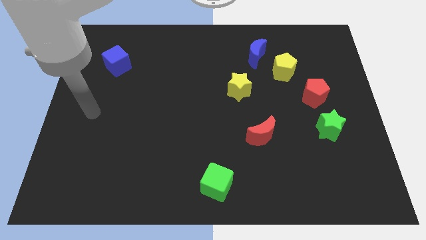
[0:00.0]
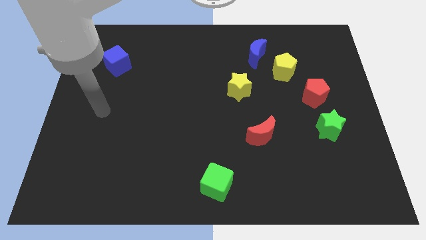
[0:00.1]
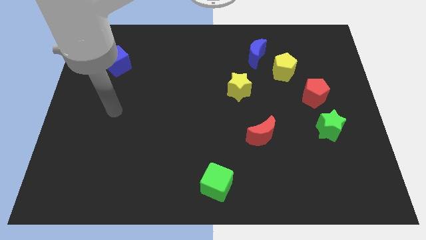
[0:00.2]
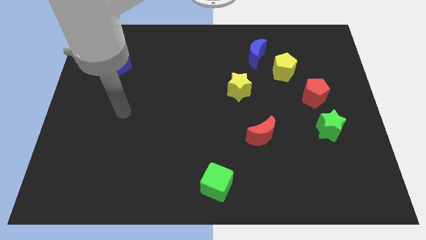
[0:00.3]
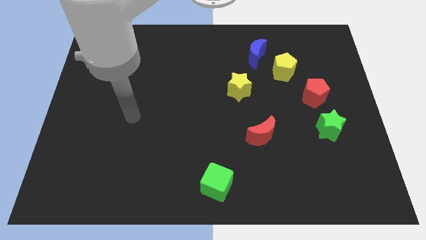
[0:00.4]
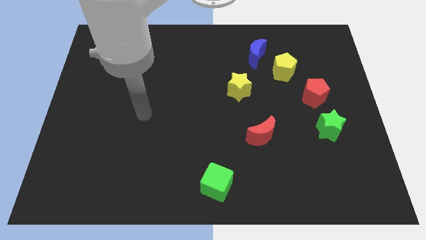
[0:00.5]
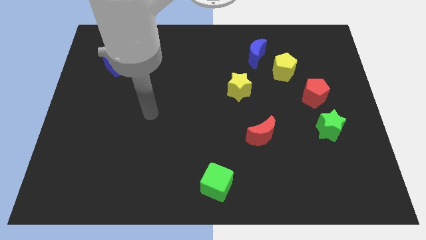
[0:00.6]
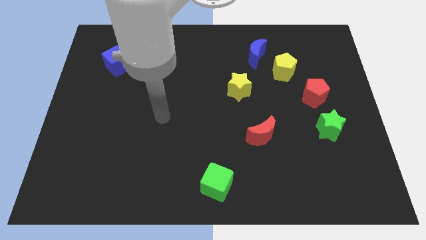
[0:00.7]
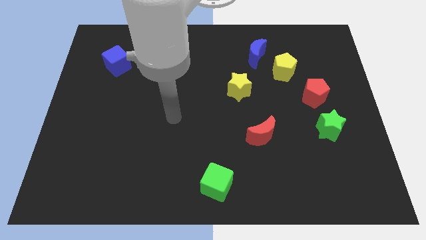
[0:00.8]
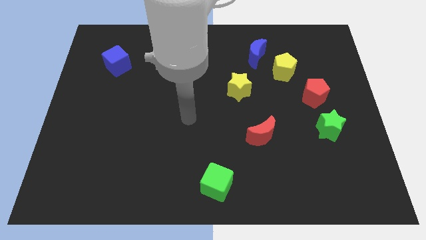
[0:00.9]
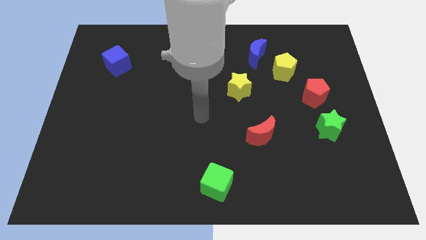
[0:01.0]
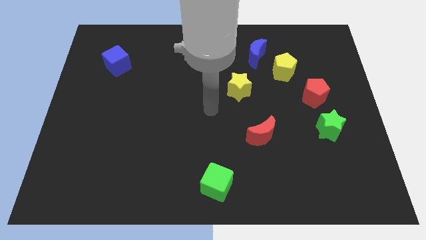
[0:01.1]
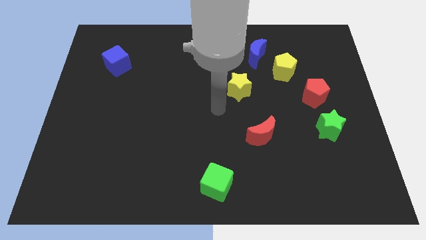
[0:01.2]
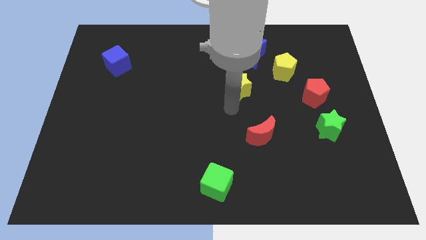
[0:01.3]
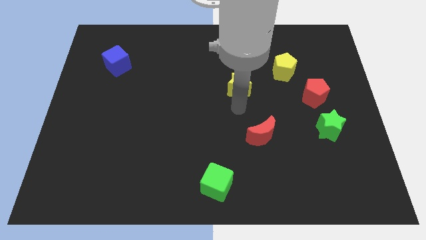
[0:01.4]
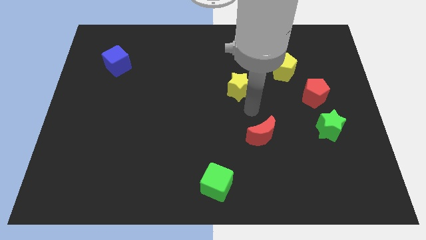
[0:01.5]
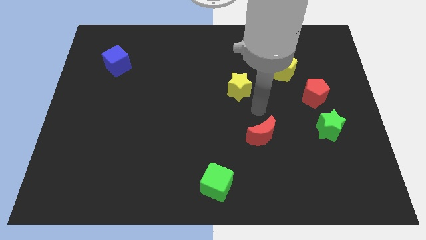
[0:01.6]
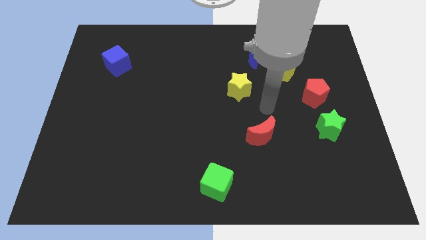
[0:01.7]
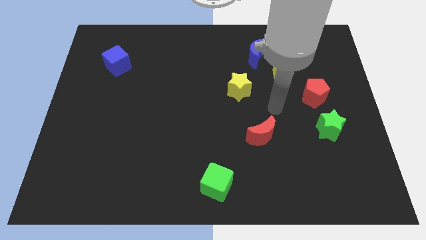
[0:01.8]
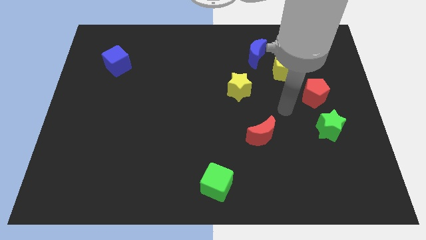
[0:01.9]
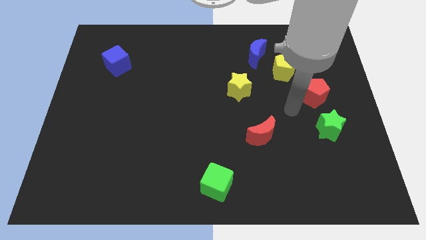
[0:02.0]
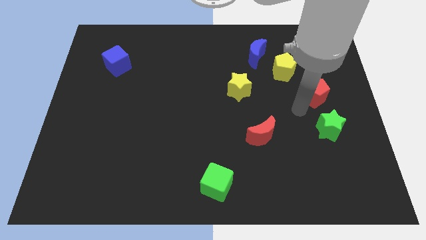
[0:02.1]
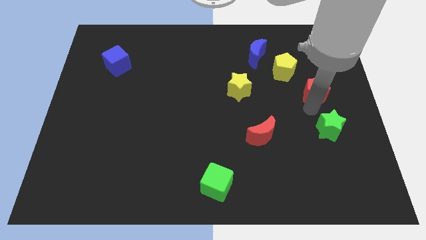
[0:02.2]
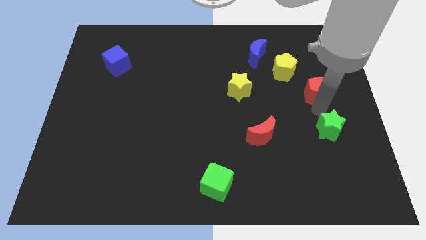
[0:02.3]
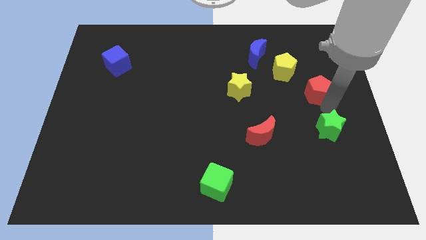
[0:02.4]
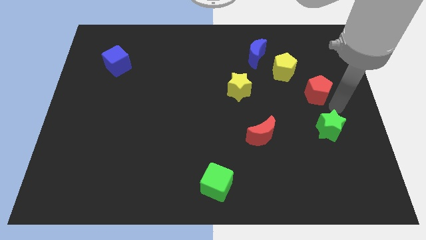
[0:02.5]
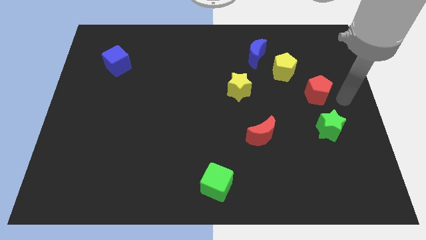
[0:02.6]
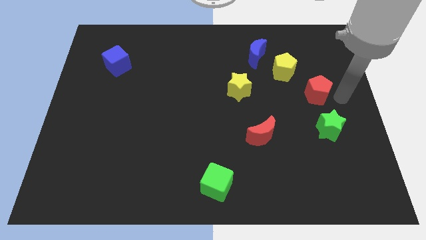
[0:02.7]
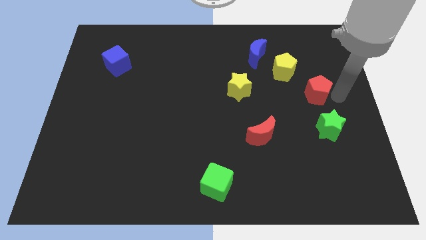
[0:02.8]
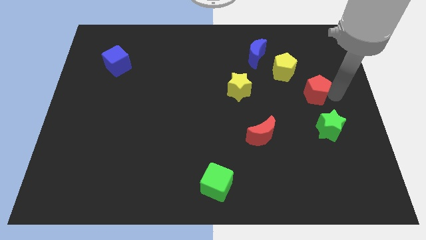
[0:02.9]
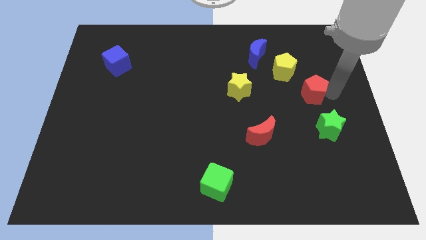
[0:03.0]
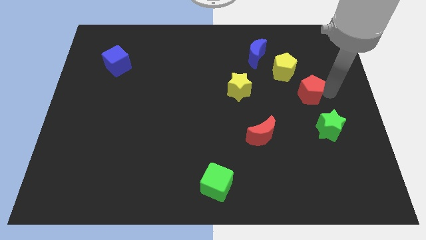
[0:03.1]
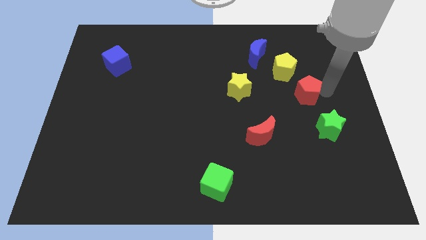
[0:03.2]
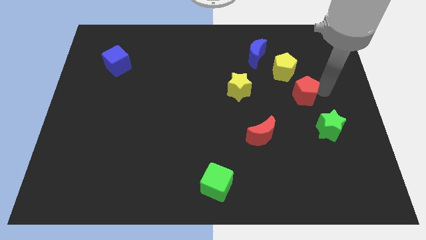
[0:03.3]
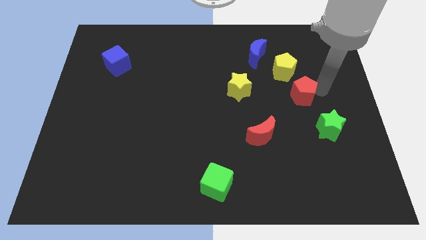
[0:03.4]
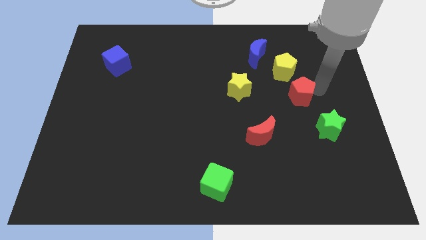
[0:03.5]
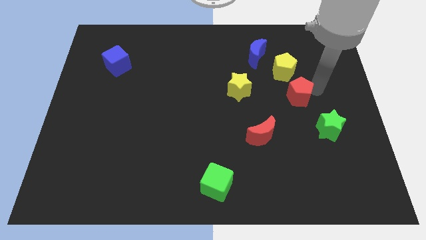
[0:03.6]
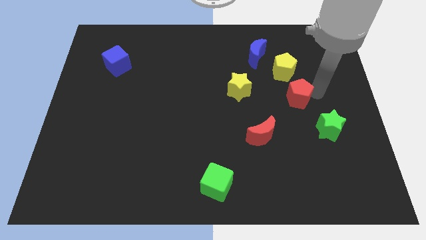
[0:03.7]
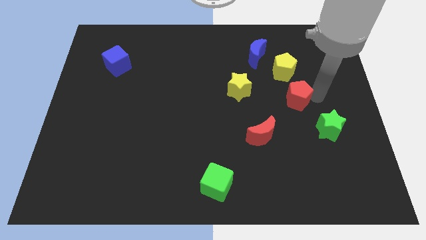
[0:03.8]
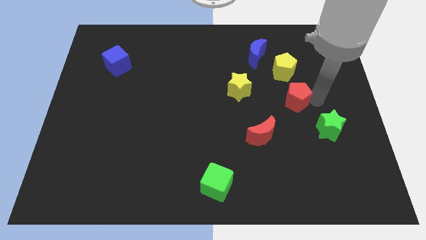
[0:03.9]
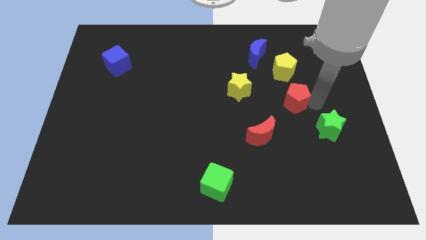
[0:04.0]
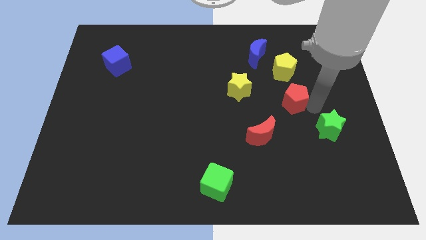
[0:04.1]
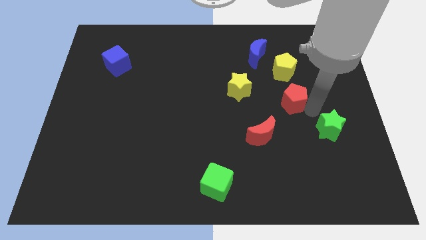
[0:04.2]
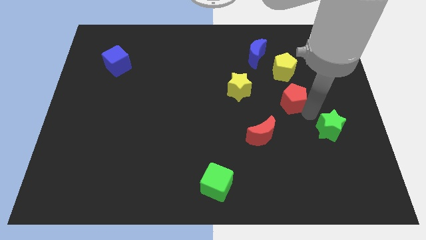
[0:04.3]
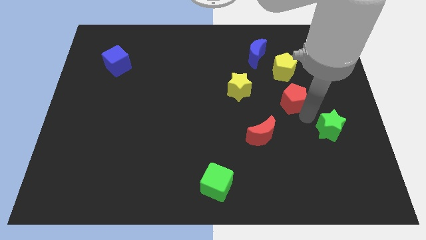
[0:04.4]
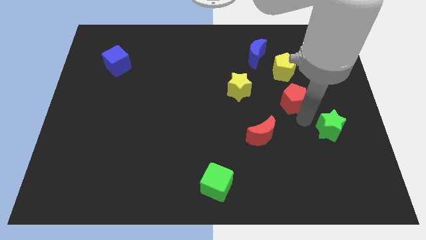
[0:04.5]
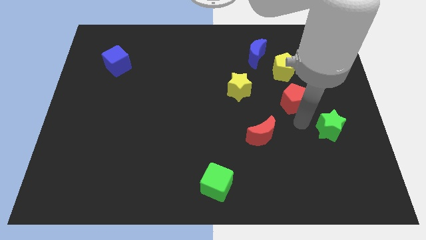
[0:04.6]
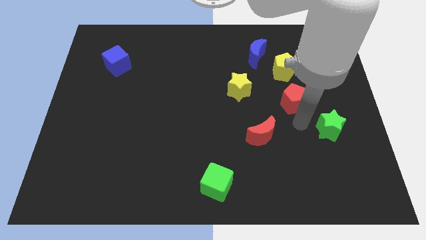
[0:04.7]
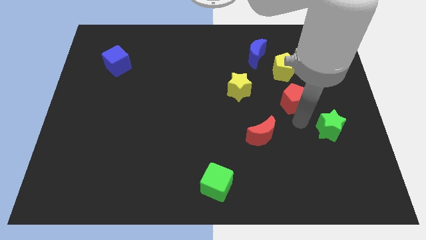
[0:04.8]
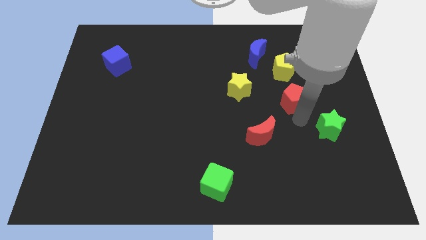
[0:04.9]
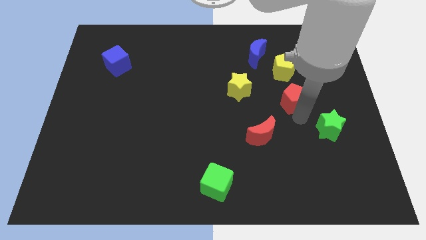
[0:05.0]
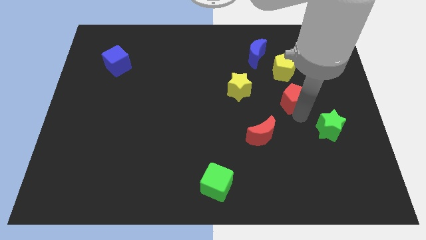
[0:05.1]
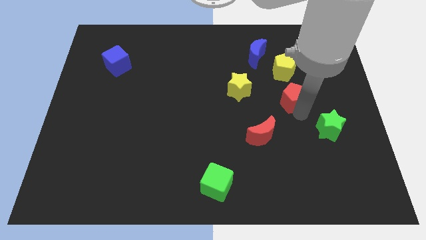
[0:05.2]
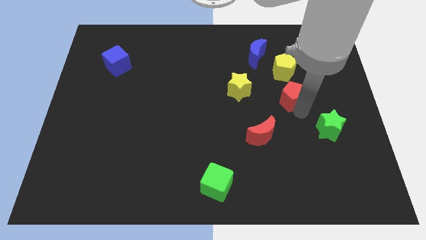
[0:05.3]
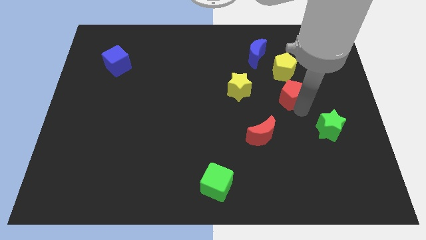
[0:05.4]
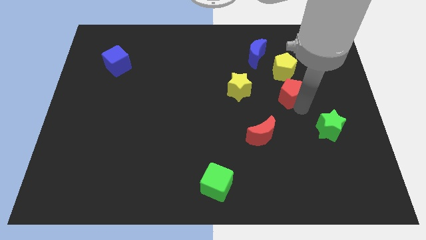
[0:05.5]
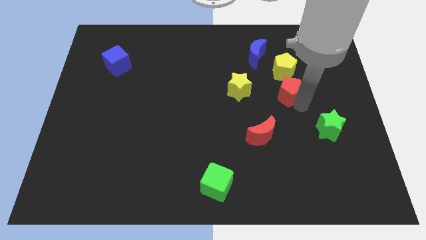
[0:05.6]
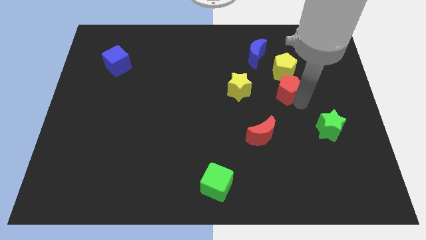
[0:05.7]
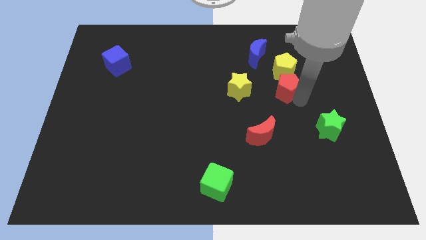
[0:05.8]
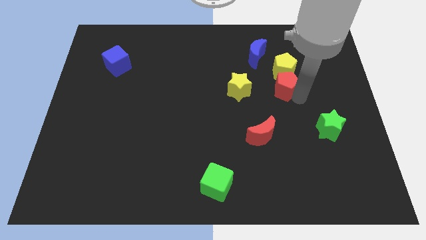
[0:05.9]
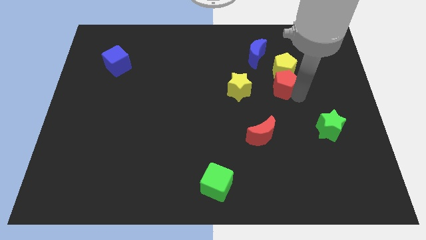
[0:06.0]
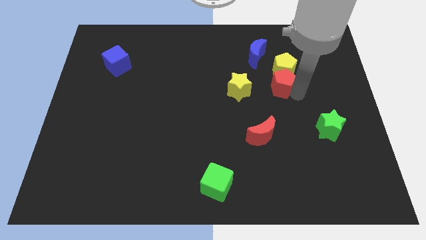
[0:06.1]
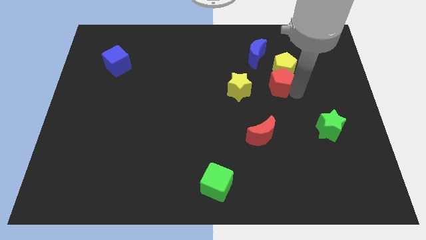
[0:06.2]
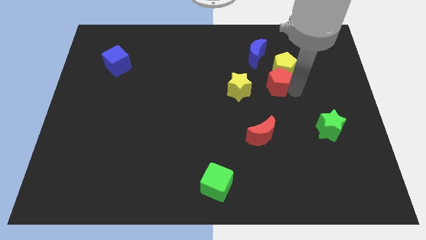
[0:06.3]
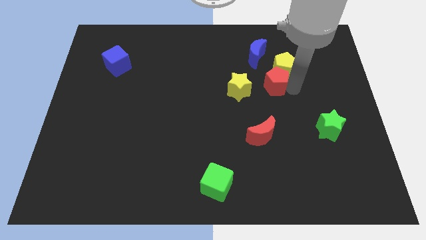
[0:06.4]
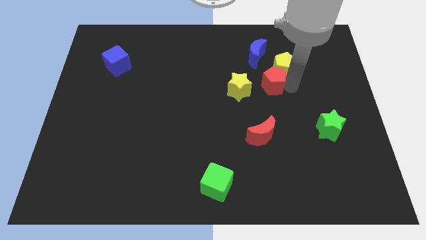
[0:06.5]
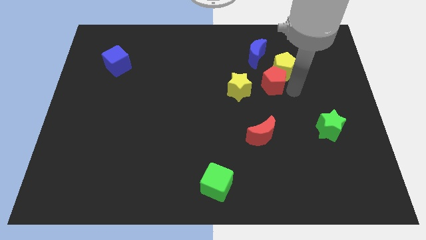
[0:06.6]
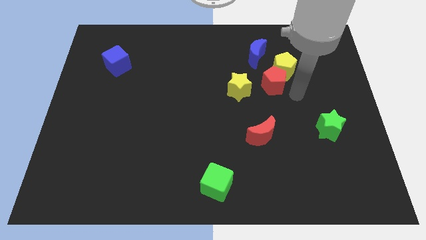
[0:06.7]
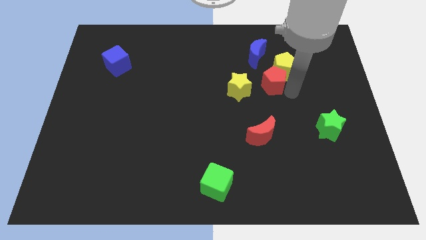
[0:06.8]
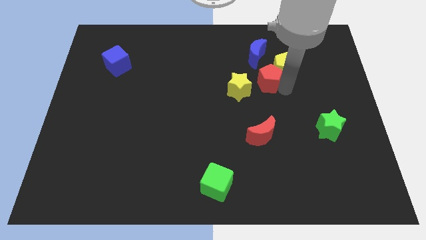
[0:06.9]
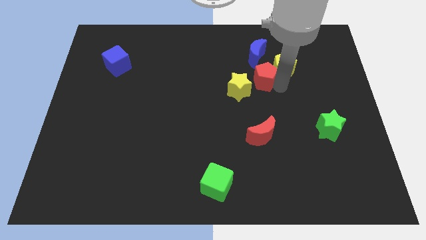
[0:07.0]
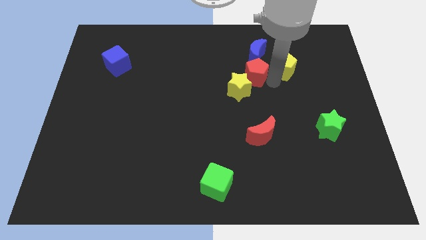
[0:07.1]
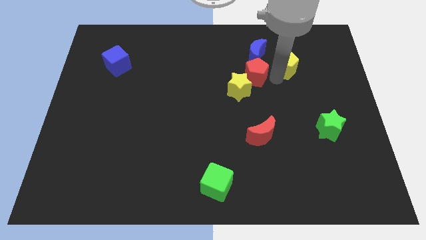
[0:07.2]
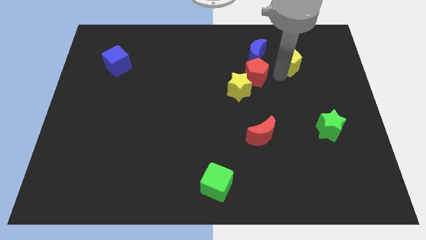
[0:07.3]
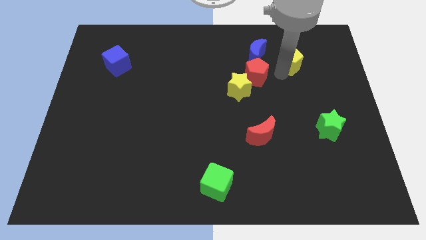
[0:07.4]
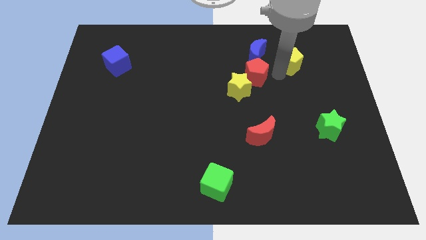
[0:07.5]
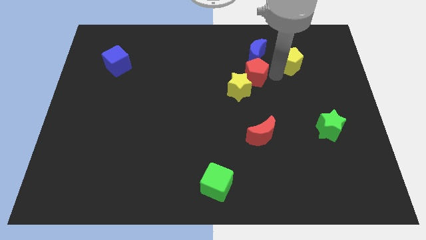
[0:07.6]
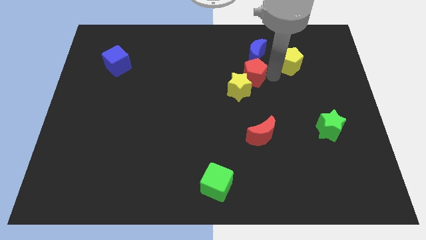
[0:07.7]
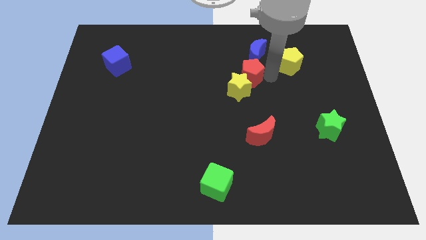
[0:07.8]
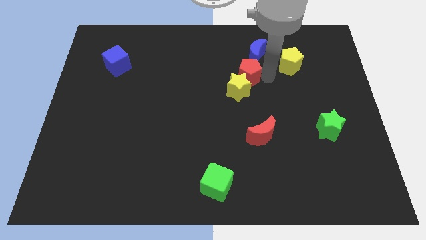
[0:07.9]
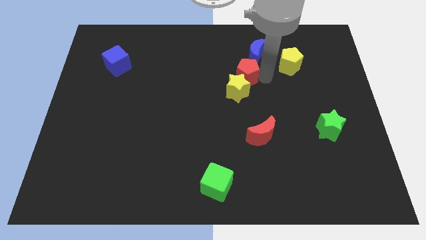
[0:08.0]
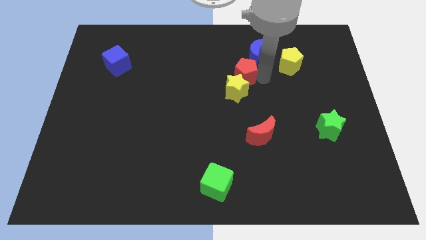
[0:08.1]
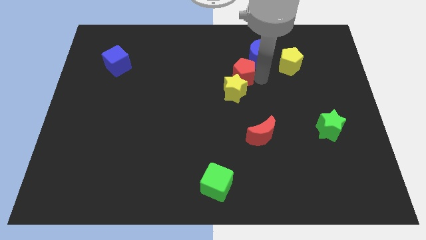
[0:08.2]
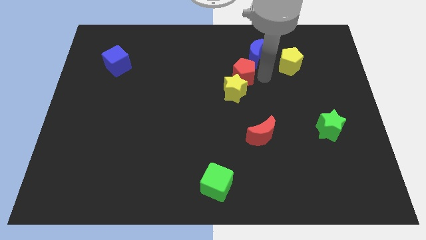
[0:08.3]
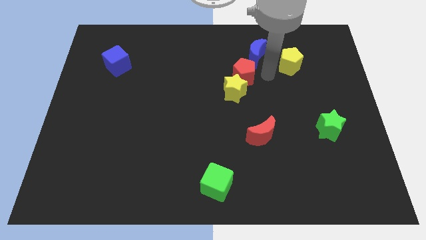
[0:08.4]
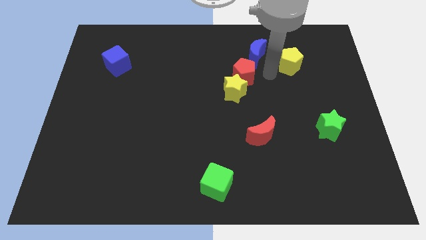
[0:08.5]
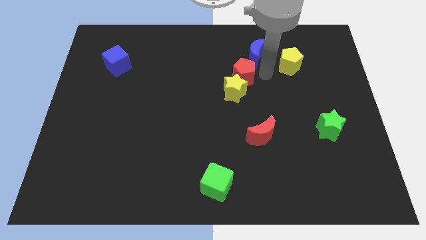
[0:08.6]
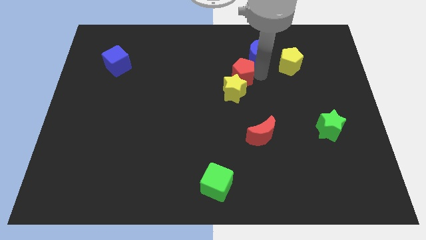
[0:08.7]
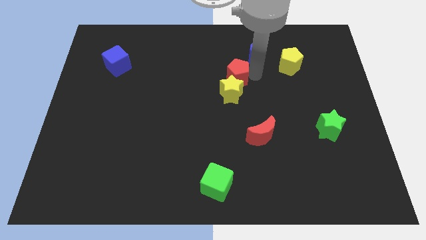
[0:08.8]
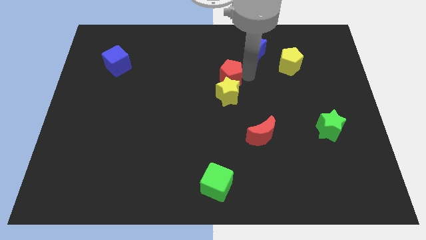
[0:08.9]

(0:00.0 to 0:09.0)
move the red pentagon to the top left side of the yellow star
